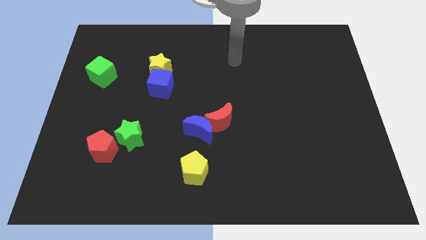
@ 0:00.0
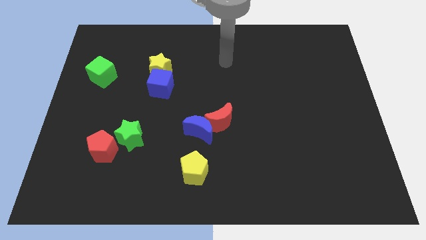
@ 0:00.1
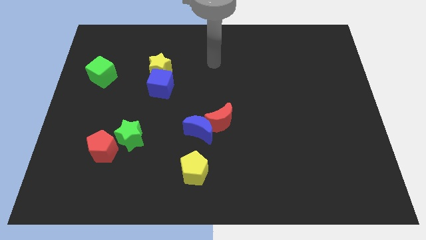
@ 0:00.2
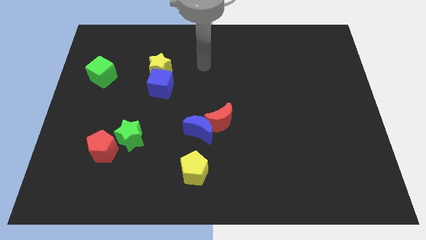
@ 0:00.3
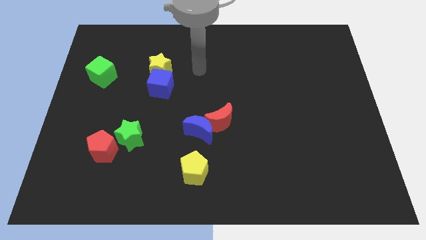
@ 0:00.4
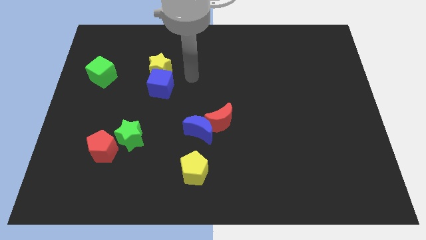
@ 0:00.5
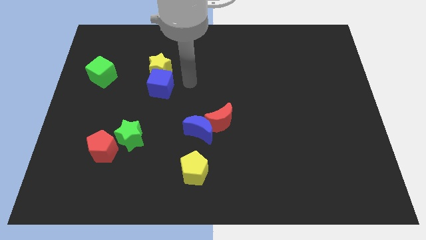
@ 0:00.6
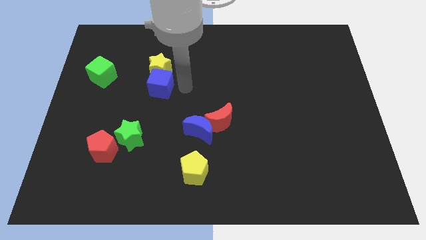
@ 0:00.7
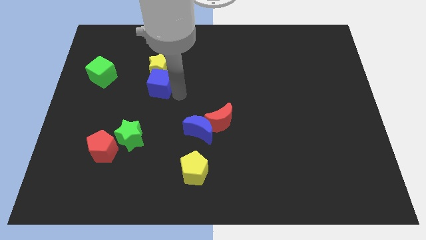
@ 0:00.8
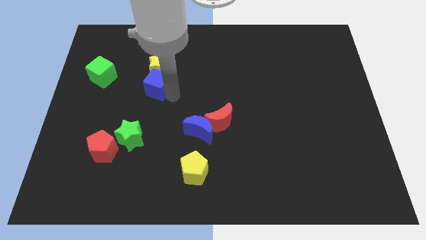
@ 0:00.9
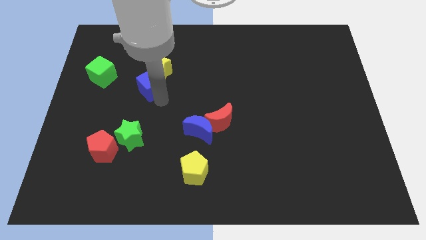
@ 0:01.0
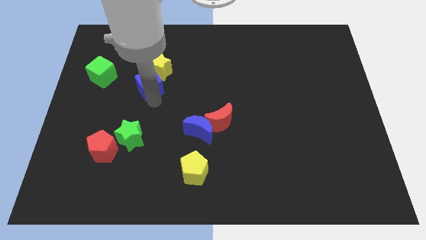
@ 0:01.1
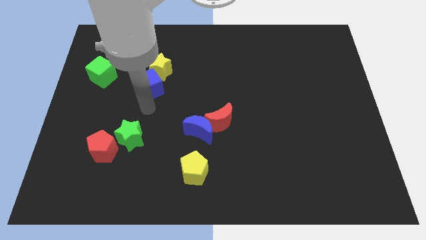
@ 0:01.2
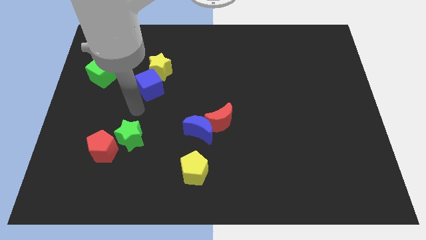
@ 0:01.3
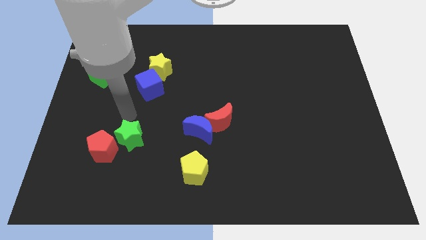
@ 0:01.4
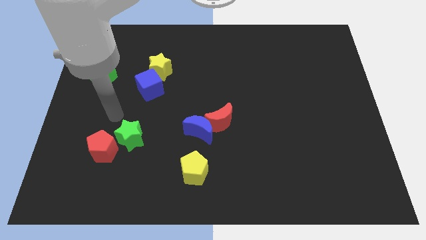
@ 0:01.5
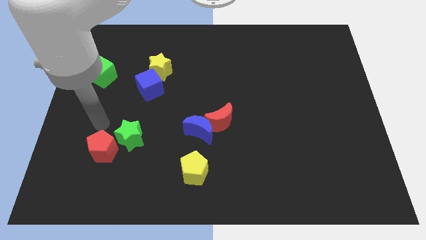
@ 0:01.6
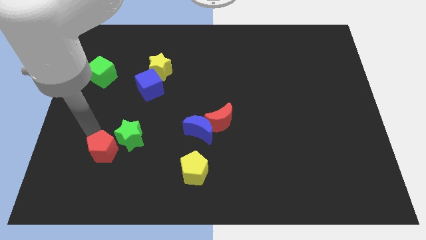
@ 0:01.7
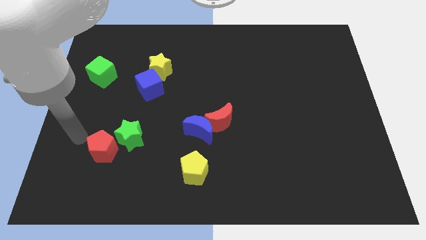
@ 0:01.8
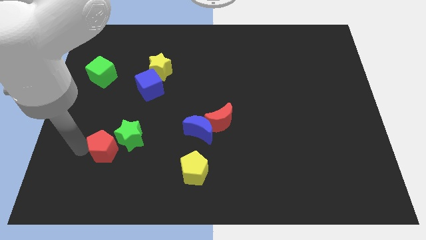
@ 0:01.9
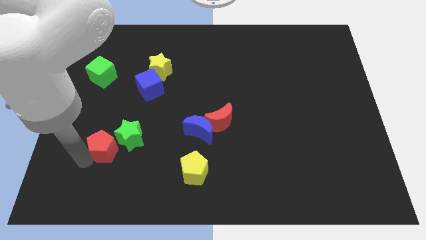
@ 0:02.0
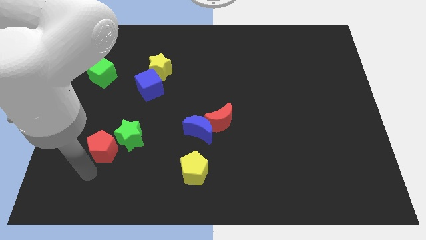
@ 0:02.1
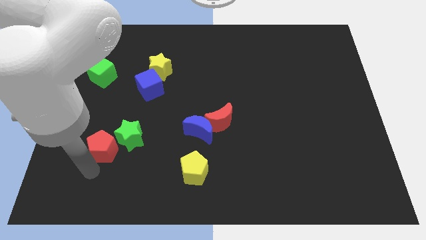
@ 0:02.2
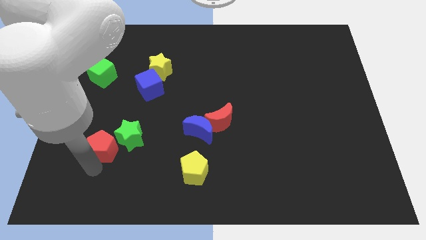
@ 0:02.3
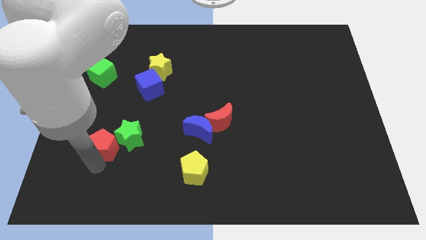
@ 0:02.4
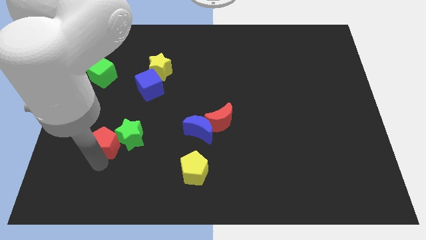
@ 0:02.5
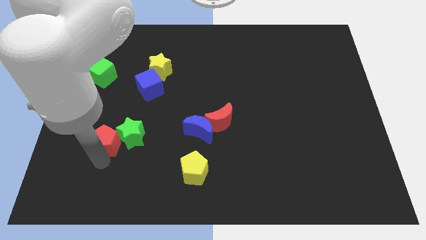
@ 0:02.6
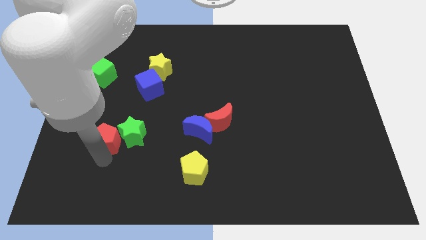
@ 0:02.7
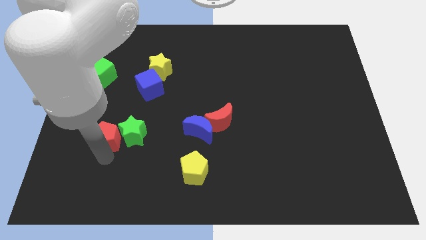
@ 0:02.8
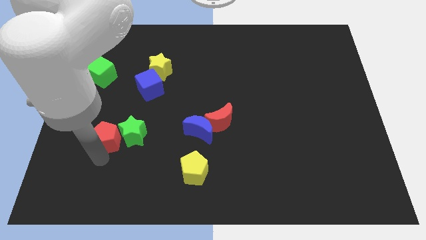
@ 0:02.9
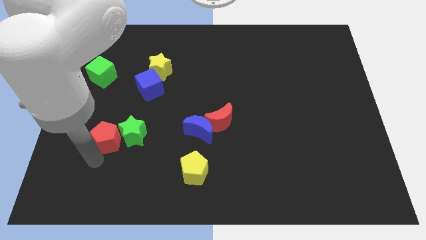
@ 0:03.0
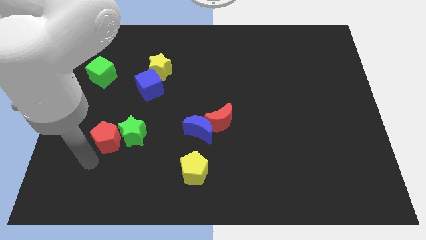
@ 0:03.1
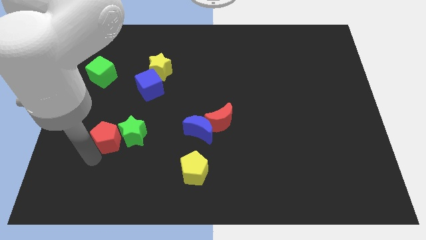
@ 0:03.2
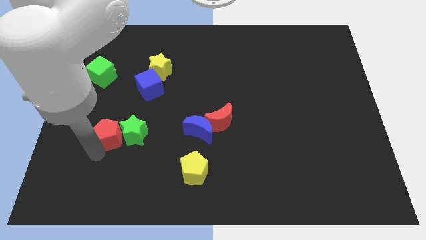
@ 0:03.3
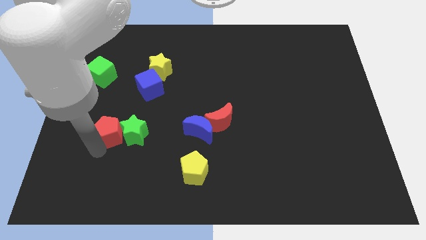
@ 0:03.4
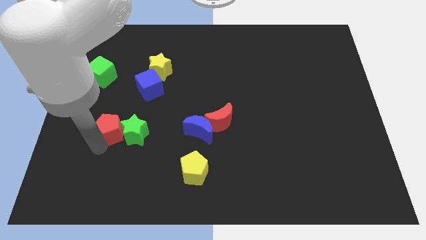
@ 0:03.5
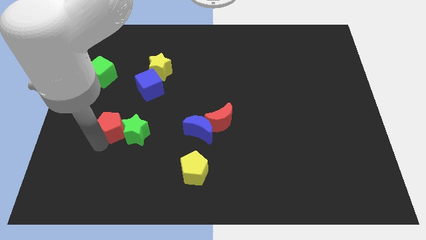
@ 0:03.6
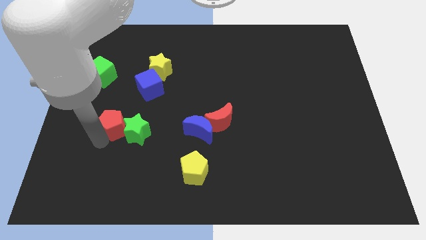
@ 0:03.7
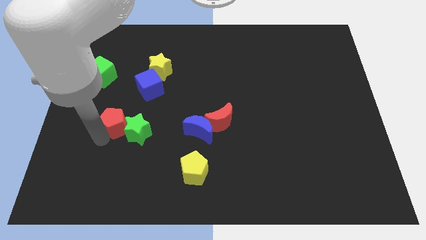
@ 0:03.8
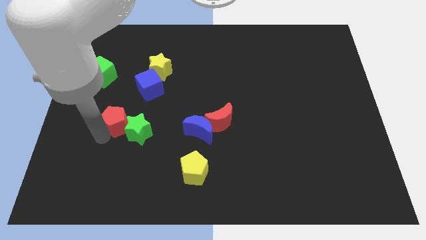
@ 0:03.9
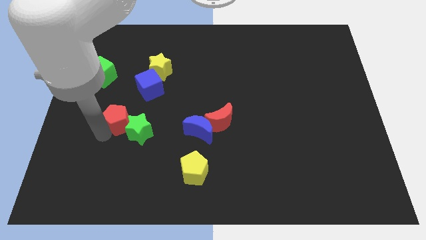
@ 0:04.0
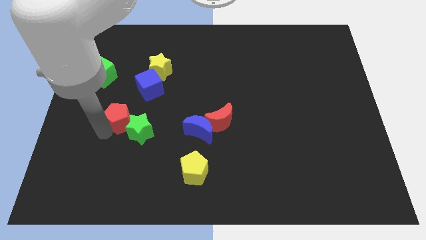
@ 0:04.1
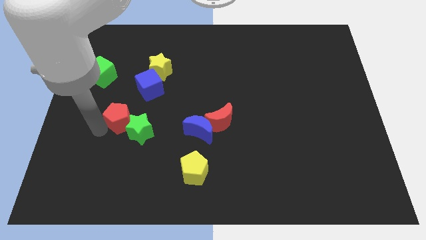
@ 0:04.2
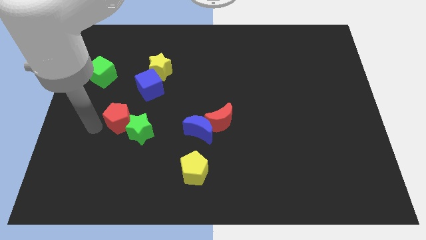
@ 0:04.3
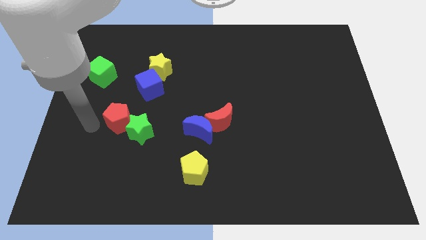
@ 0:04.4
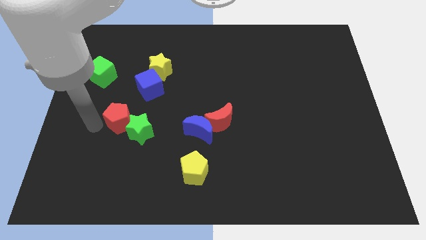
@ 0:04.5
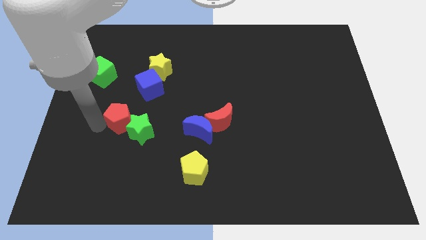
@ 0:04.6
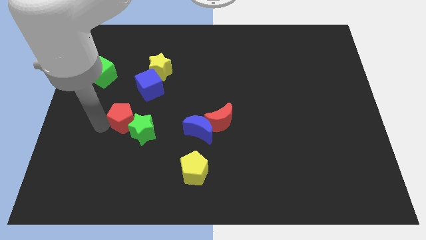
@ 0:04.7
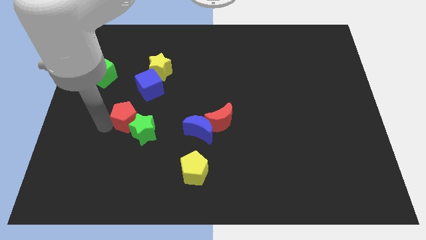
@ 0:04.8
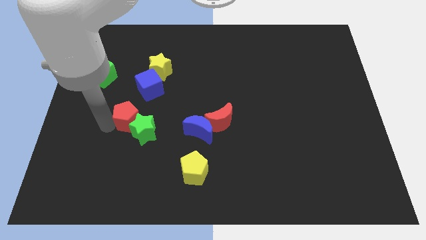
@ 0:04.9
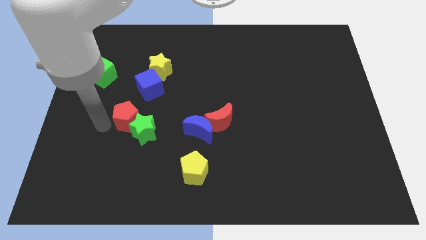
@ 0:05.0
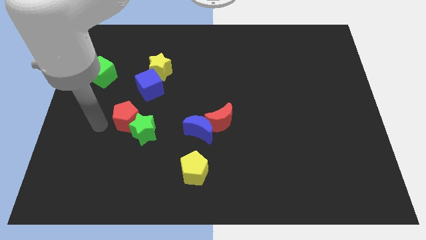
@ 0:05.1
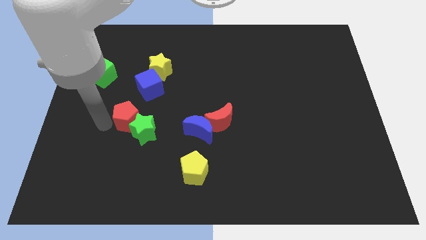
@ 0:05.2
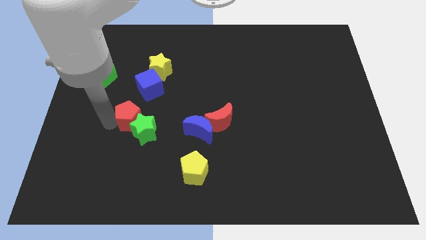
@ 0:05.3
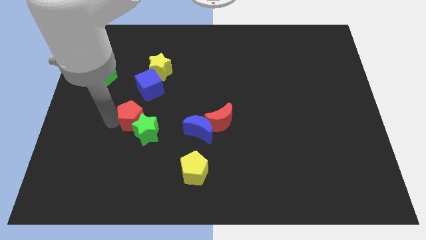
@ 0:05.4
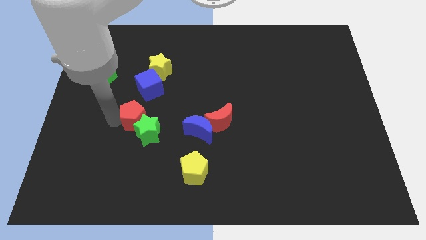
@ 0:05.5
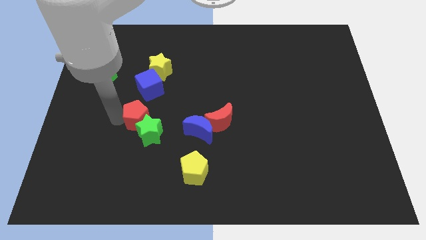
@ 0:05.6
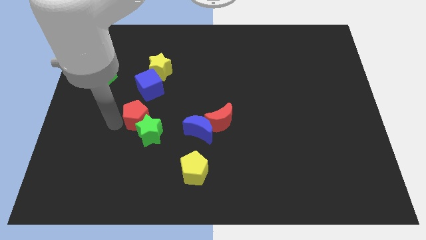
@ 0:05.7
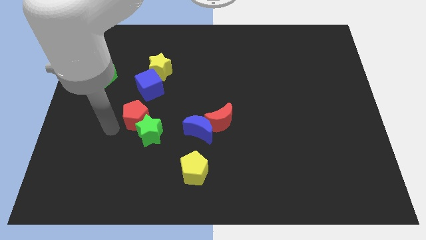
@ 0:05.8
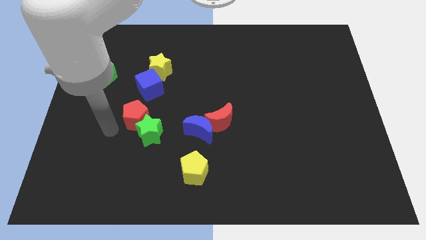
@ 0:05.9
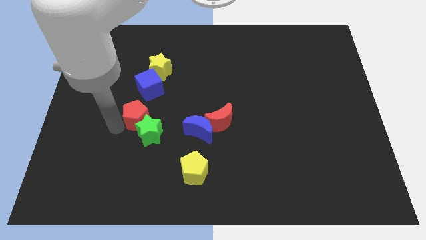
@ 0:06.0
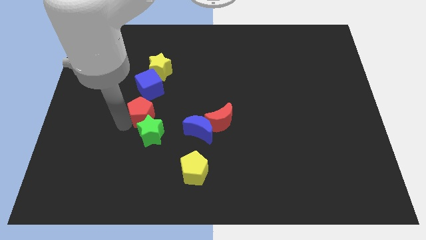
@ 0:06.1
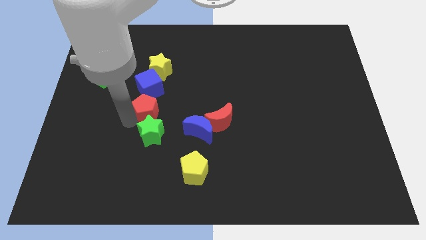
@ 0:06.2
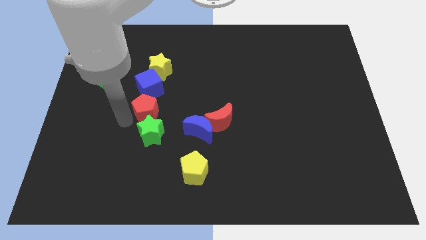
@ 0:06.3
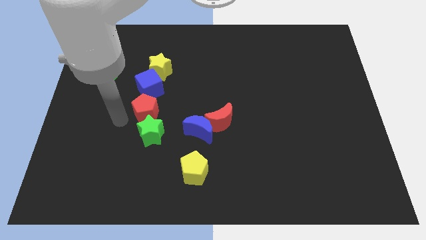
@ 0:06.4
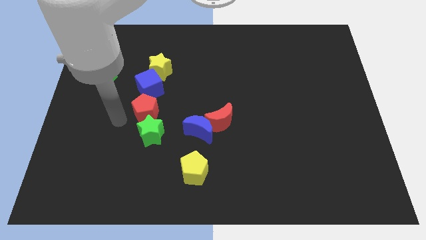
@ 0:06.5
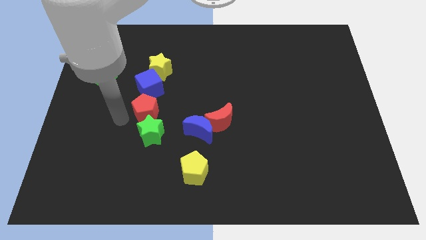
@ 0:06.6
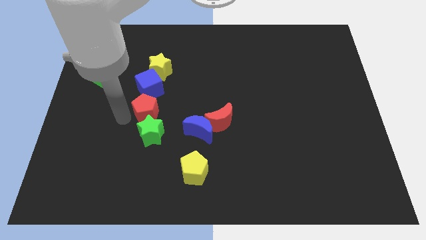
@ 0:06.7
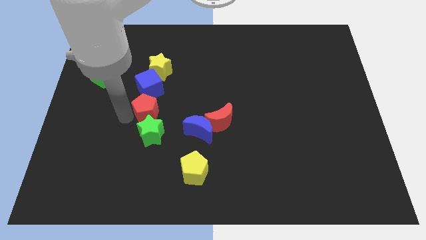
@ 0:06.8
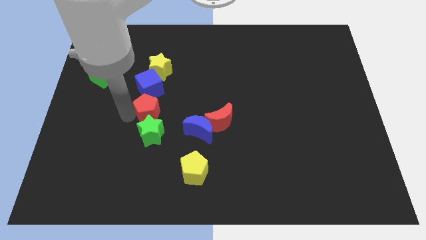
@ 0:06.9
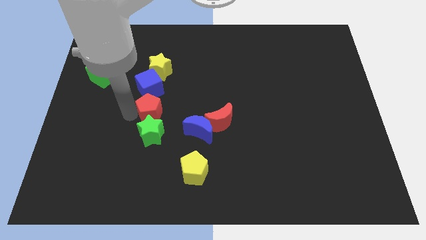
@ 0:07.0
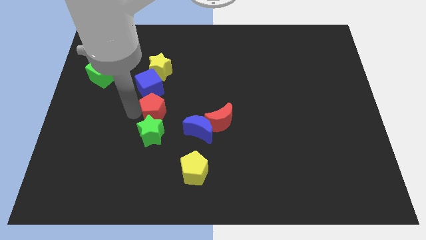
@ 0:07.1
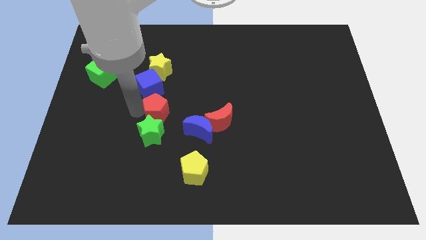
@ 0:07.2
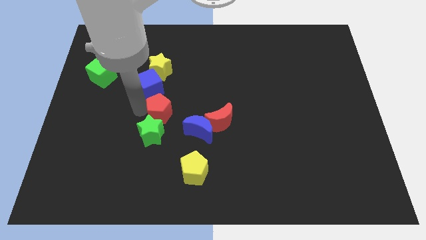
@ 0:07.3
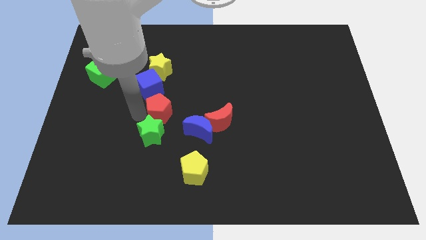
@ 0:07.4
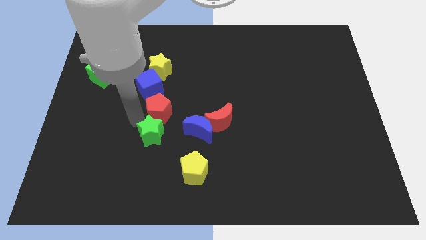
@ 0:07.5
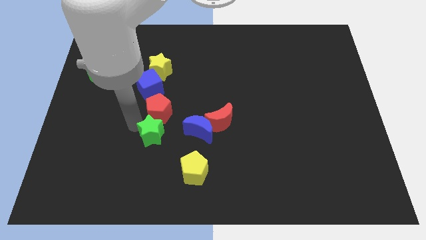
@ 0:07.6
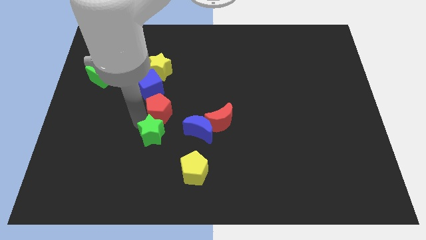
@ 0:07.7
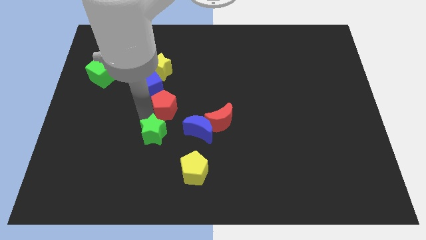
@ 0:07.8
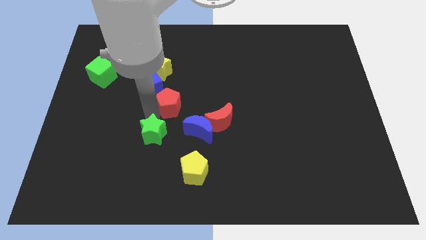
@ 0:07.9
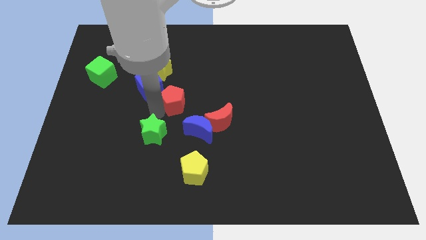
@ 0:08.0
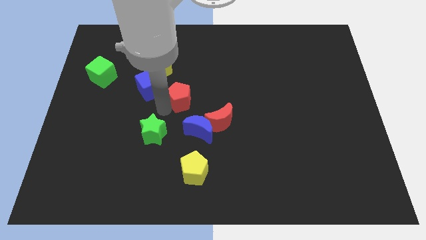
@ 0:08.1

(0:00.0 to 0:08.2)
slide the red pentagon up and to the right
